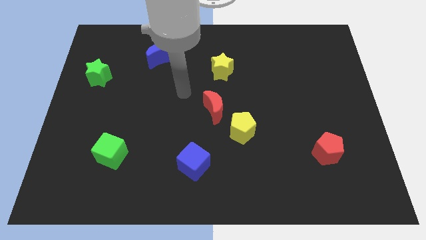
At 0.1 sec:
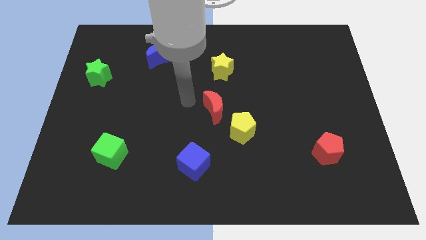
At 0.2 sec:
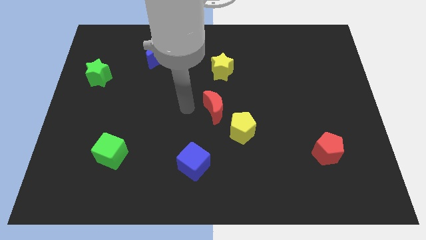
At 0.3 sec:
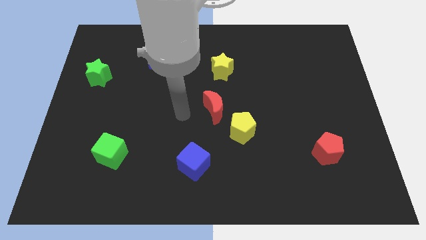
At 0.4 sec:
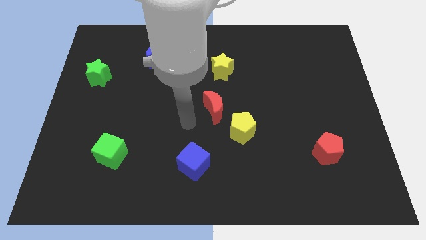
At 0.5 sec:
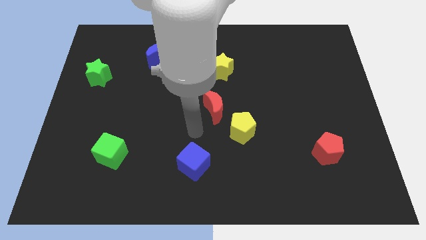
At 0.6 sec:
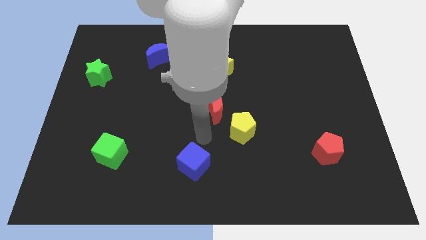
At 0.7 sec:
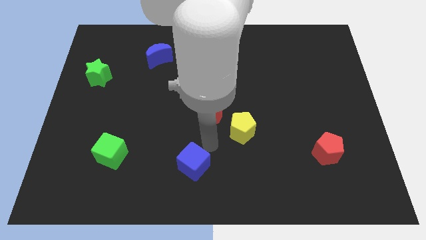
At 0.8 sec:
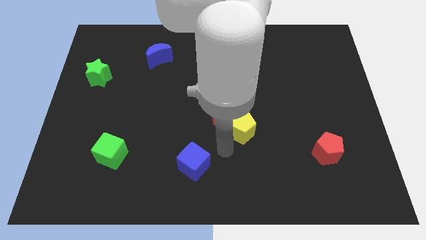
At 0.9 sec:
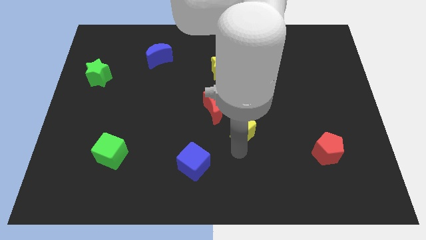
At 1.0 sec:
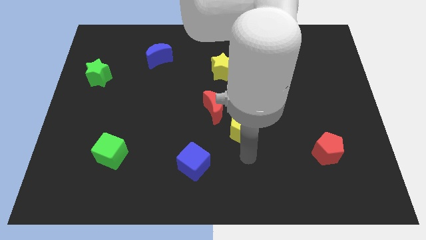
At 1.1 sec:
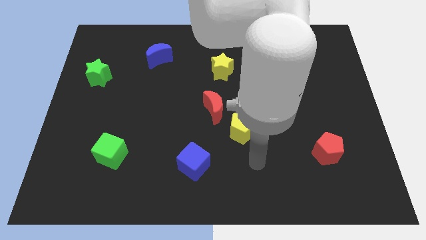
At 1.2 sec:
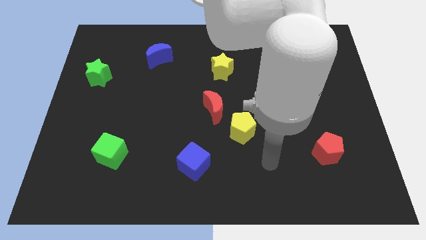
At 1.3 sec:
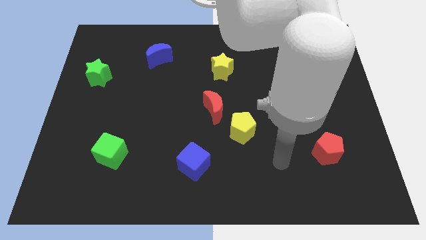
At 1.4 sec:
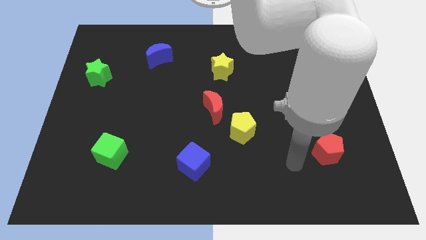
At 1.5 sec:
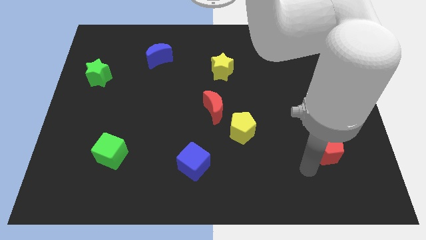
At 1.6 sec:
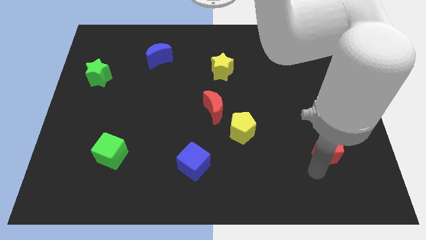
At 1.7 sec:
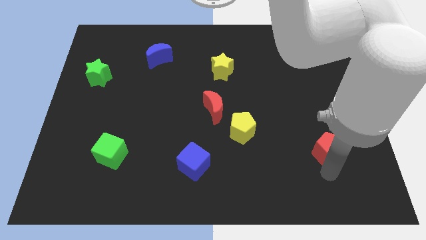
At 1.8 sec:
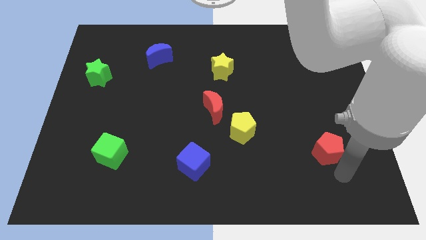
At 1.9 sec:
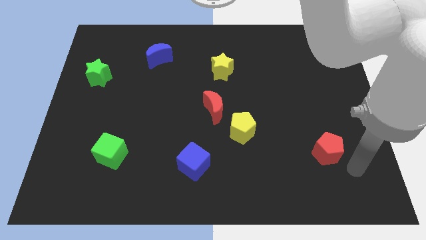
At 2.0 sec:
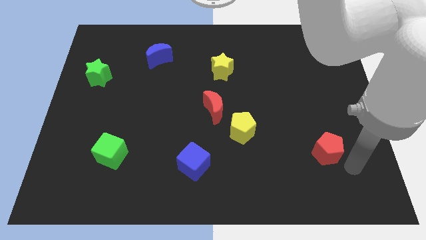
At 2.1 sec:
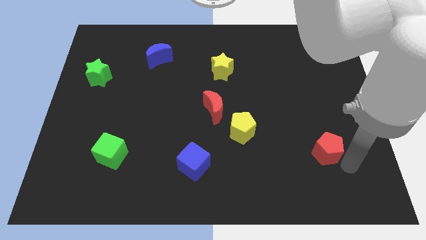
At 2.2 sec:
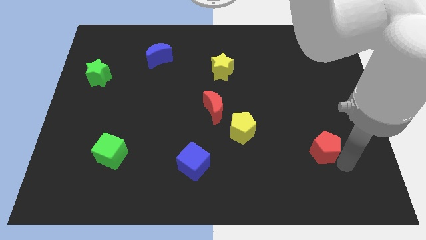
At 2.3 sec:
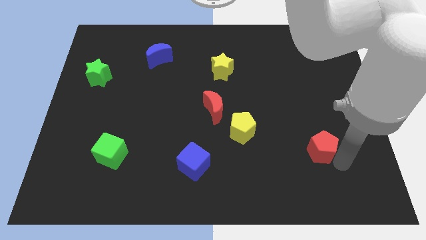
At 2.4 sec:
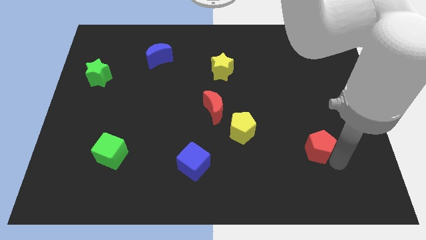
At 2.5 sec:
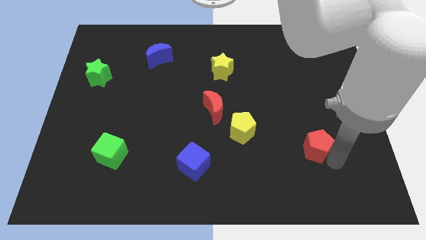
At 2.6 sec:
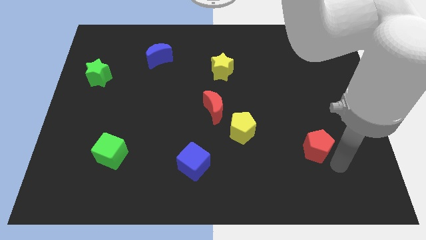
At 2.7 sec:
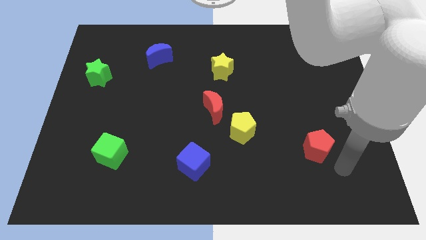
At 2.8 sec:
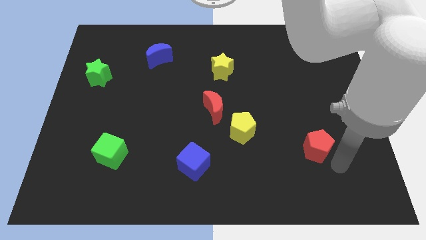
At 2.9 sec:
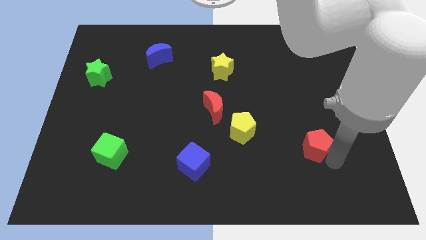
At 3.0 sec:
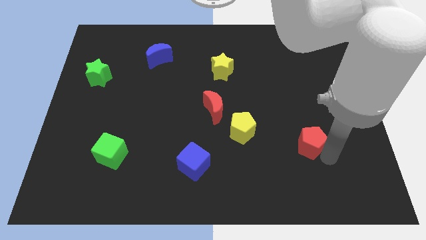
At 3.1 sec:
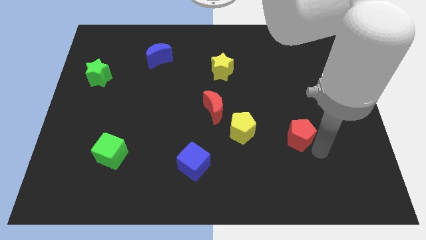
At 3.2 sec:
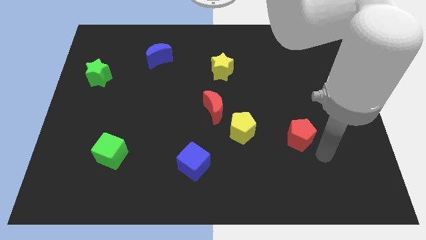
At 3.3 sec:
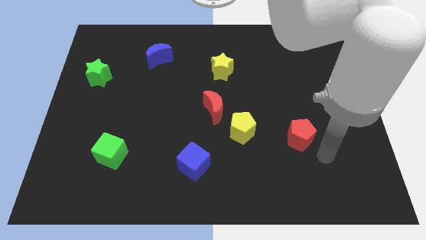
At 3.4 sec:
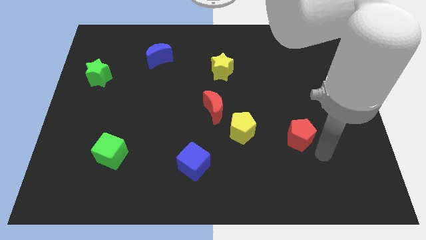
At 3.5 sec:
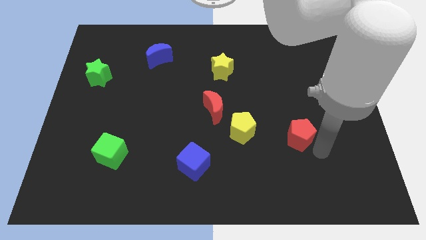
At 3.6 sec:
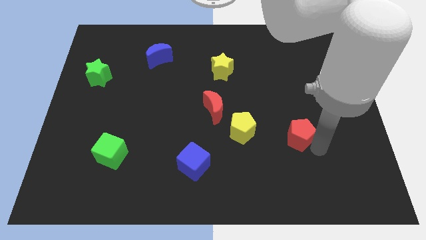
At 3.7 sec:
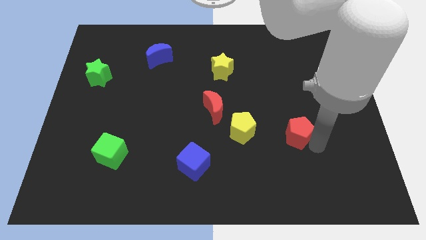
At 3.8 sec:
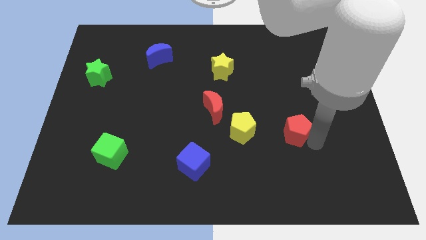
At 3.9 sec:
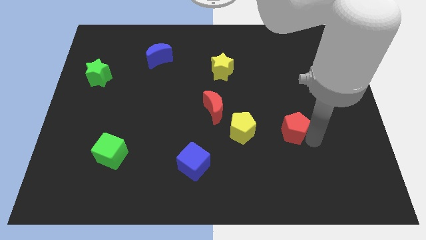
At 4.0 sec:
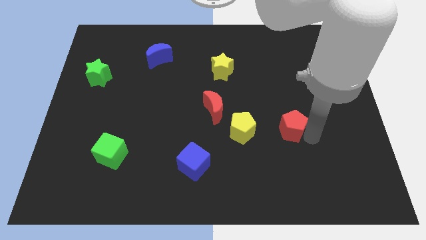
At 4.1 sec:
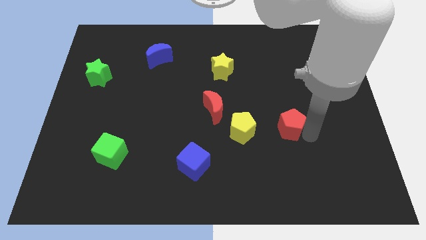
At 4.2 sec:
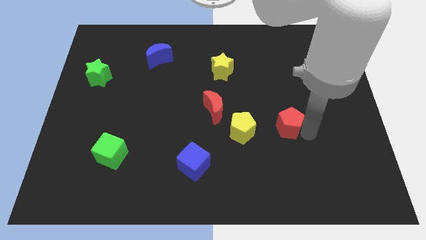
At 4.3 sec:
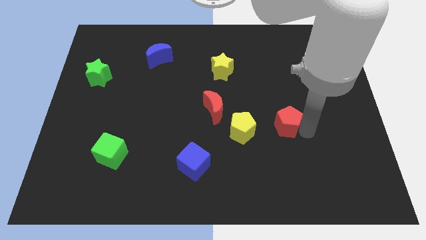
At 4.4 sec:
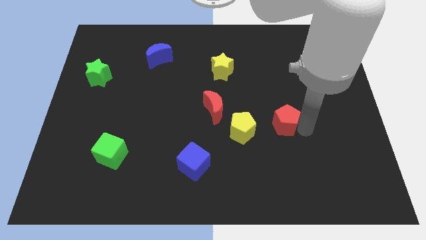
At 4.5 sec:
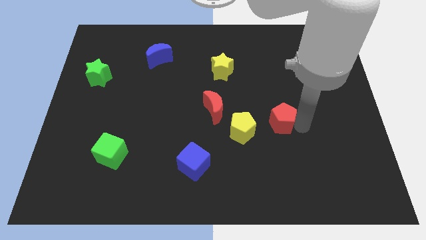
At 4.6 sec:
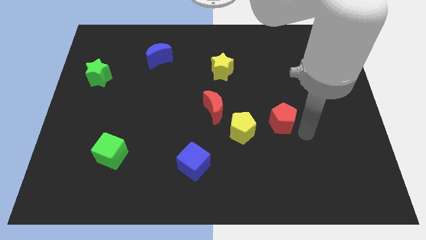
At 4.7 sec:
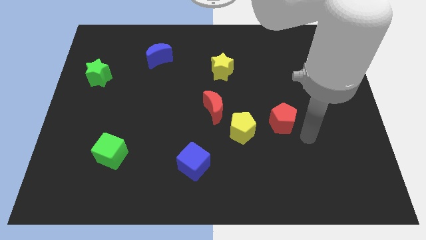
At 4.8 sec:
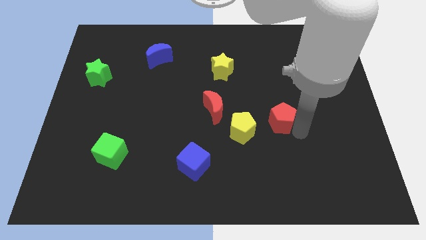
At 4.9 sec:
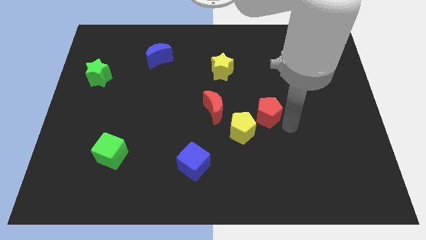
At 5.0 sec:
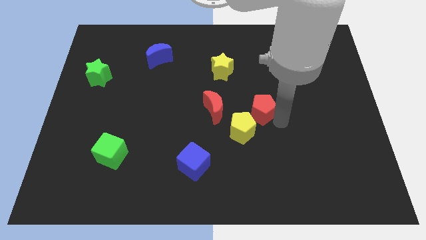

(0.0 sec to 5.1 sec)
push the red pentagon to the top of the yellow pentagon

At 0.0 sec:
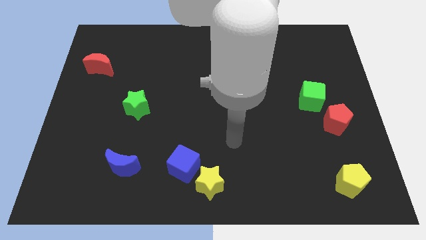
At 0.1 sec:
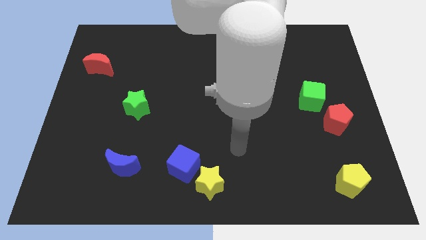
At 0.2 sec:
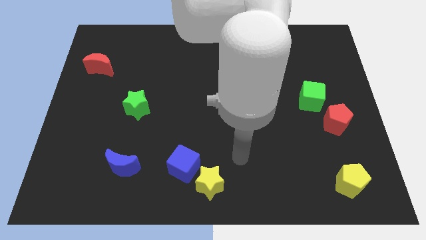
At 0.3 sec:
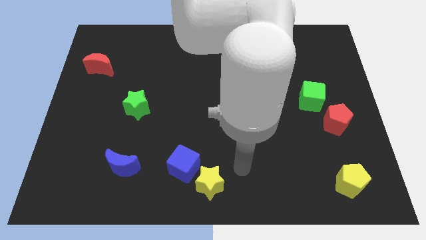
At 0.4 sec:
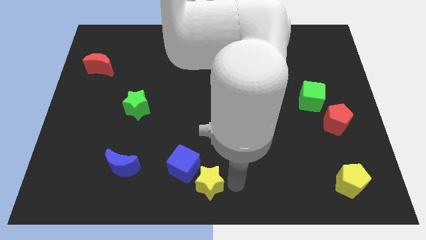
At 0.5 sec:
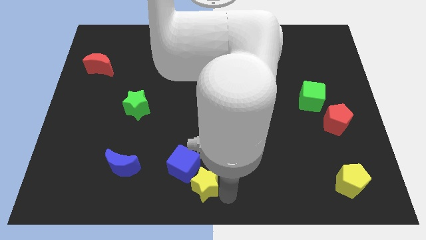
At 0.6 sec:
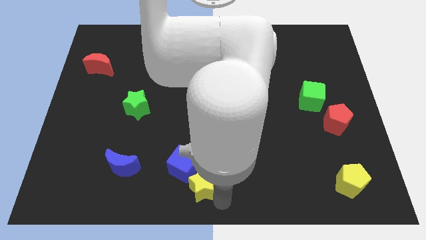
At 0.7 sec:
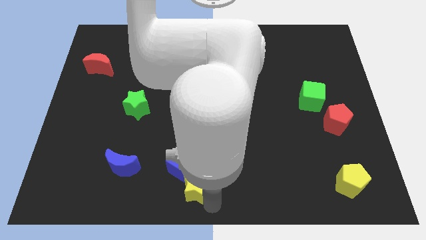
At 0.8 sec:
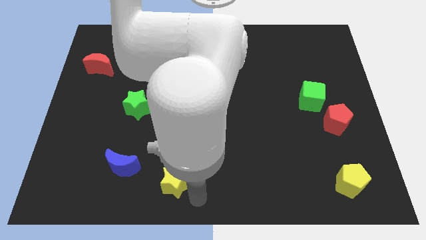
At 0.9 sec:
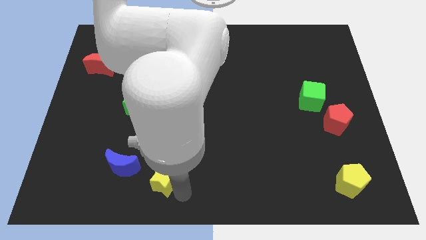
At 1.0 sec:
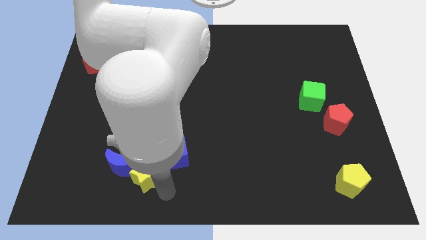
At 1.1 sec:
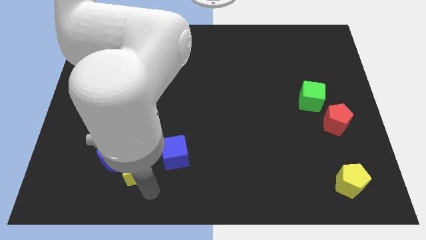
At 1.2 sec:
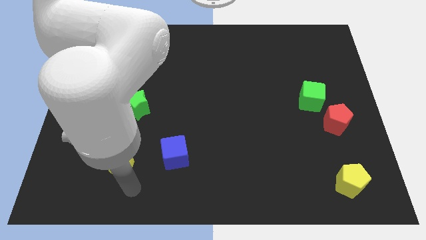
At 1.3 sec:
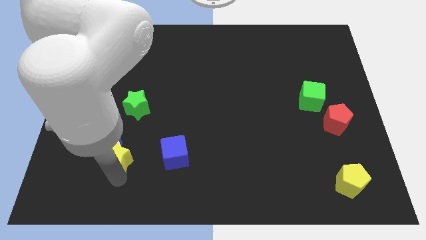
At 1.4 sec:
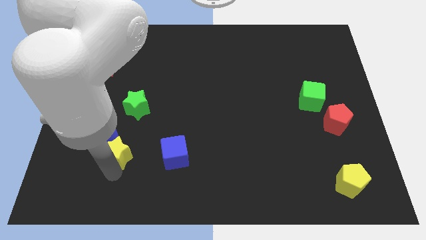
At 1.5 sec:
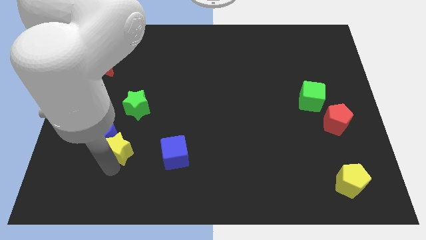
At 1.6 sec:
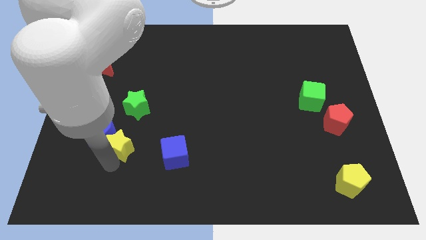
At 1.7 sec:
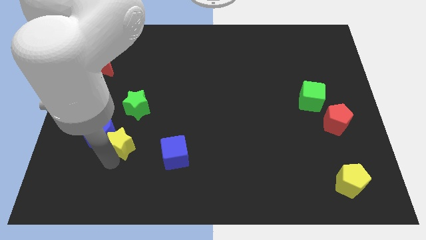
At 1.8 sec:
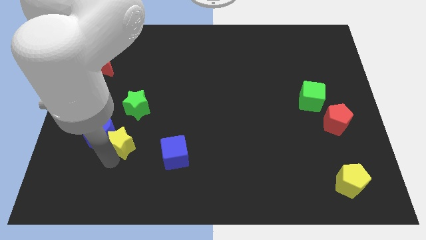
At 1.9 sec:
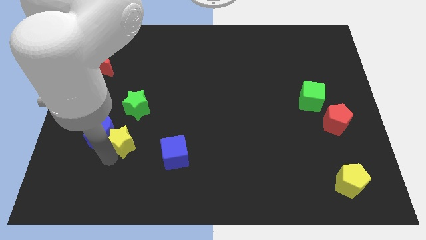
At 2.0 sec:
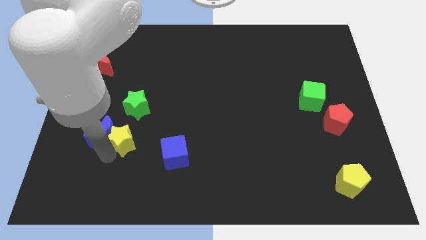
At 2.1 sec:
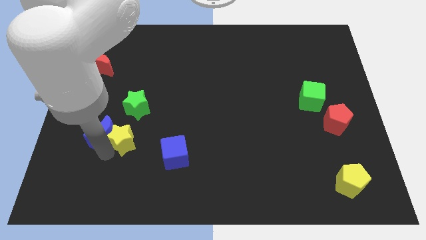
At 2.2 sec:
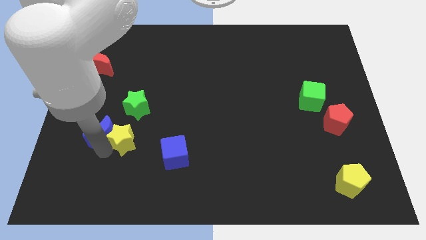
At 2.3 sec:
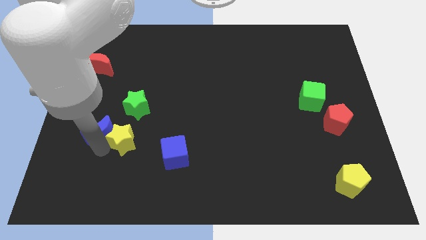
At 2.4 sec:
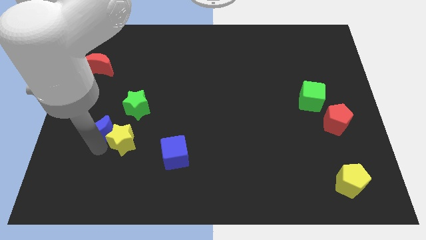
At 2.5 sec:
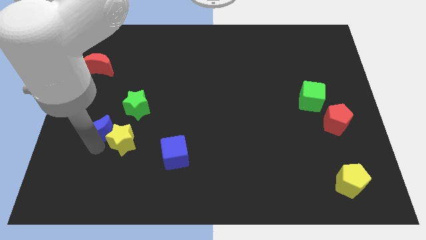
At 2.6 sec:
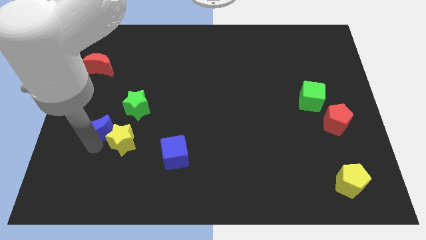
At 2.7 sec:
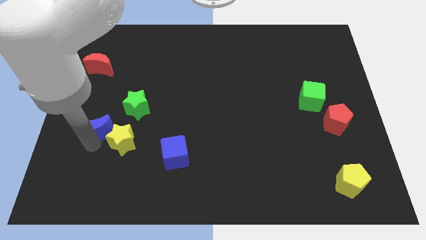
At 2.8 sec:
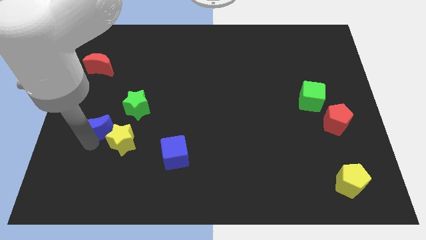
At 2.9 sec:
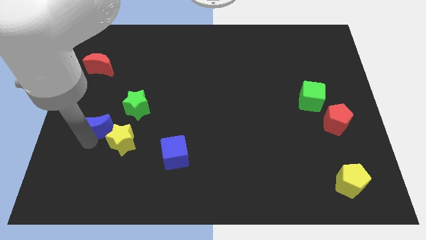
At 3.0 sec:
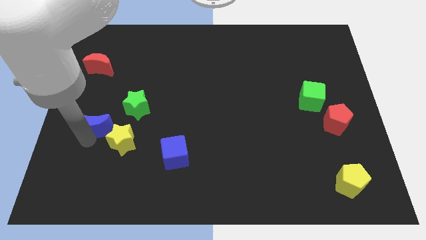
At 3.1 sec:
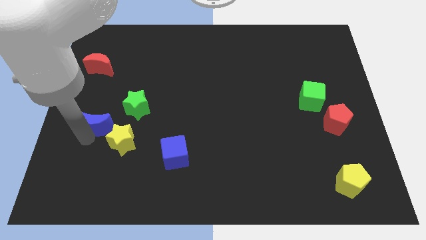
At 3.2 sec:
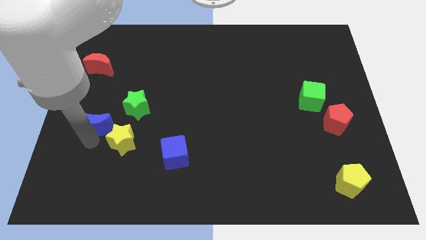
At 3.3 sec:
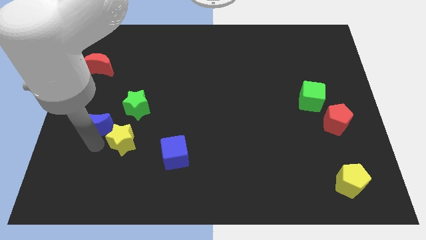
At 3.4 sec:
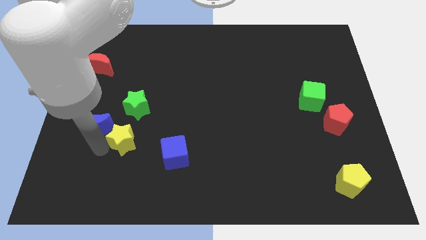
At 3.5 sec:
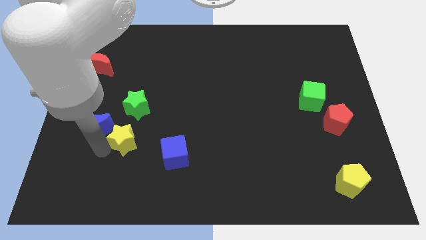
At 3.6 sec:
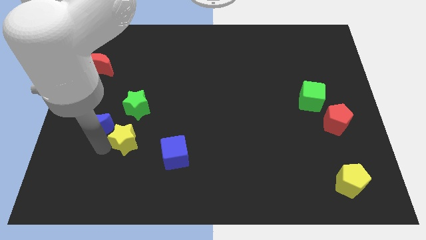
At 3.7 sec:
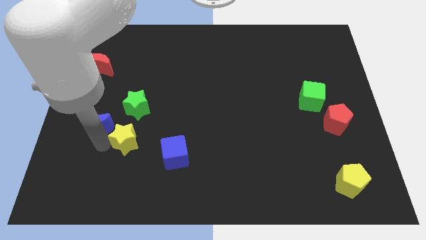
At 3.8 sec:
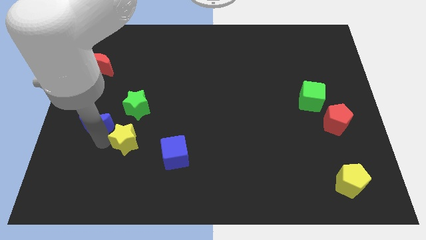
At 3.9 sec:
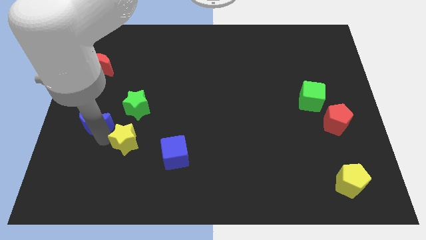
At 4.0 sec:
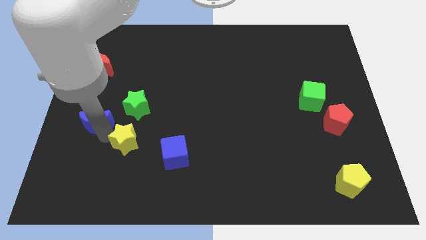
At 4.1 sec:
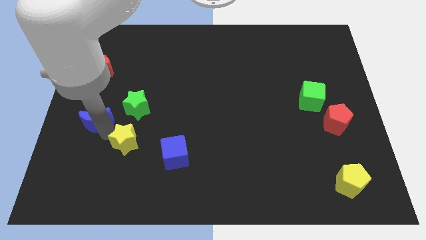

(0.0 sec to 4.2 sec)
slide the blue moon to the left side of the green star
